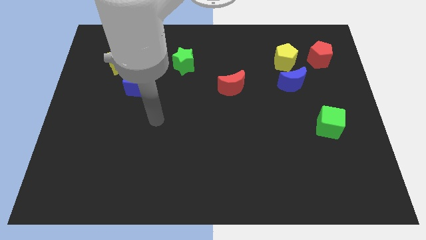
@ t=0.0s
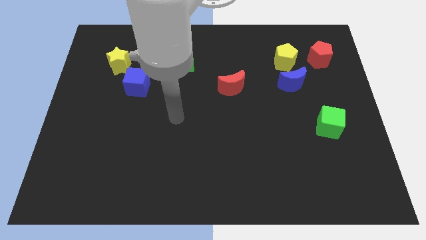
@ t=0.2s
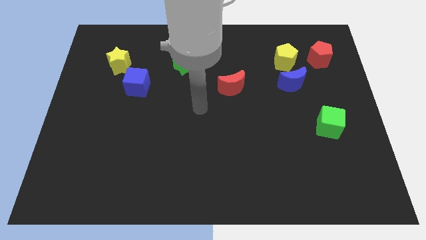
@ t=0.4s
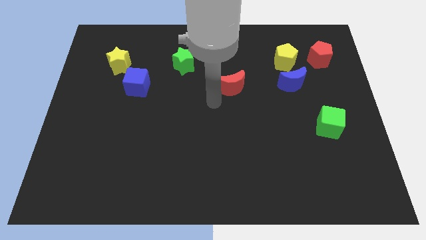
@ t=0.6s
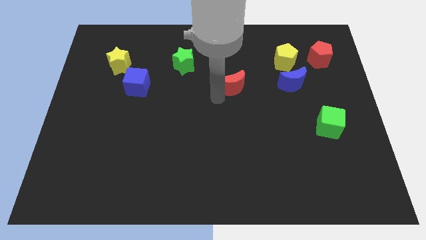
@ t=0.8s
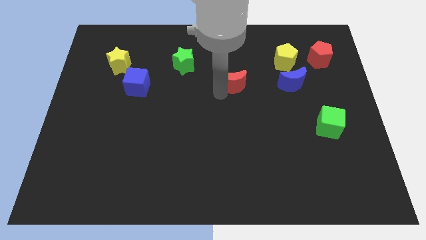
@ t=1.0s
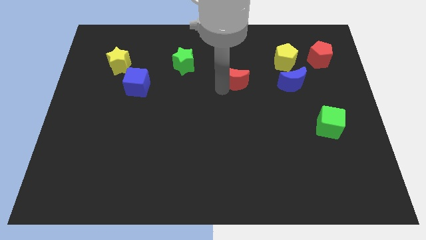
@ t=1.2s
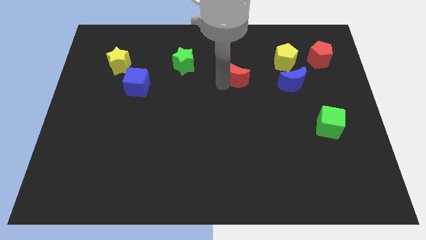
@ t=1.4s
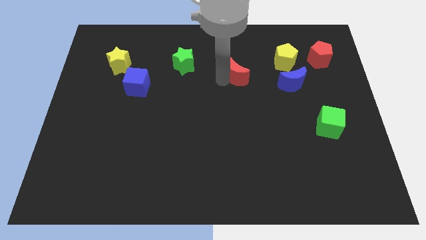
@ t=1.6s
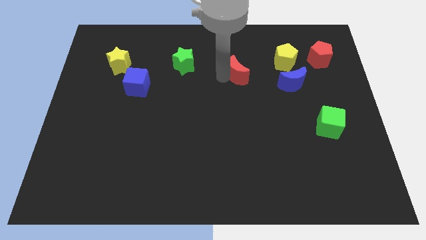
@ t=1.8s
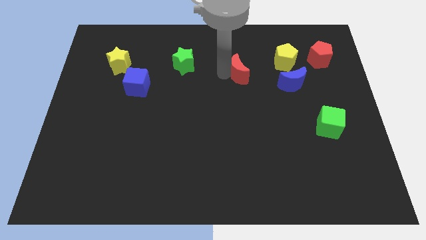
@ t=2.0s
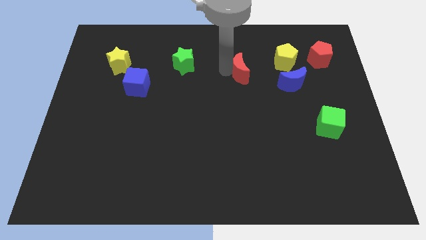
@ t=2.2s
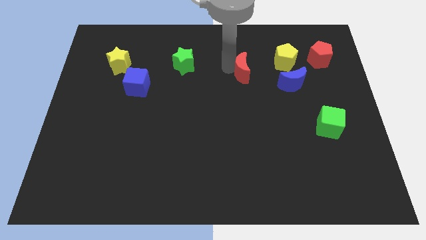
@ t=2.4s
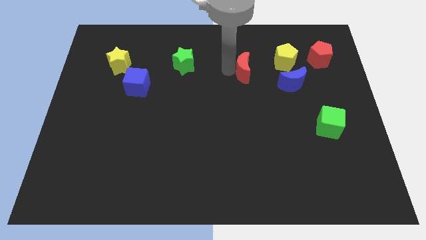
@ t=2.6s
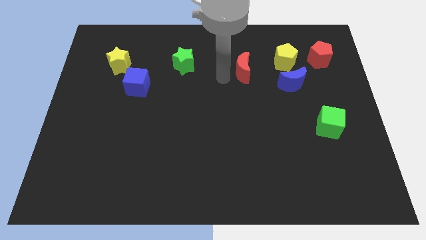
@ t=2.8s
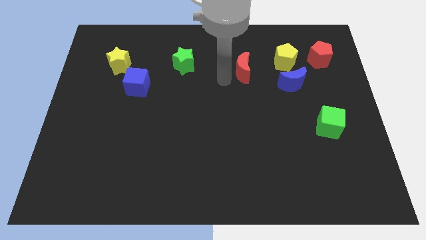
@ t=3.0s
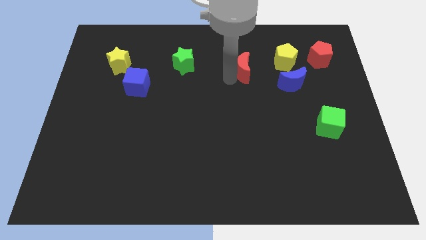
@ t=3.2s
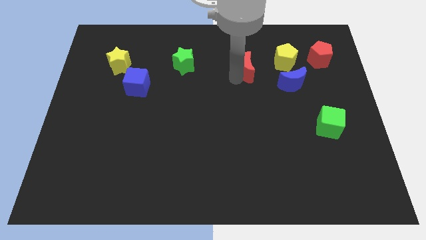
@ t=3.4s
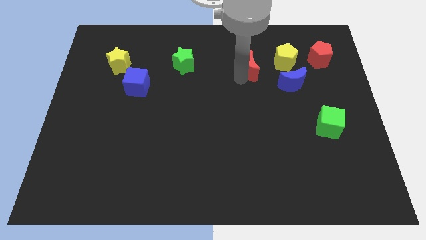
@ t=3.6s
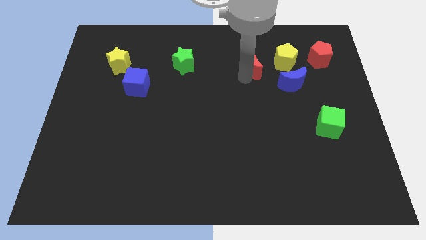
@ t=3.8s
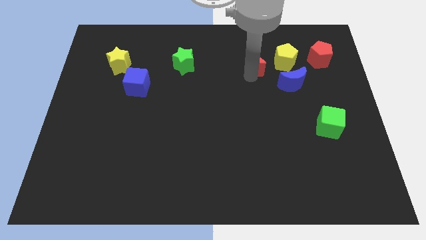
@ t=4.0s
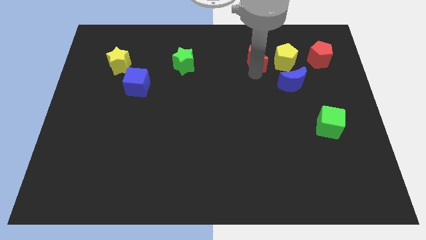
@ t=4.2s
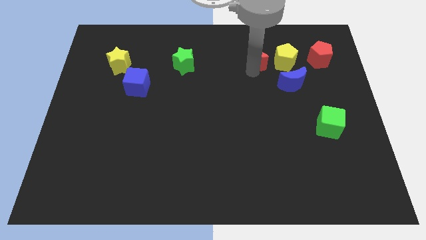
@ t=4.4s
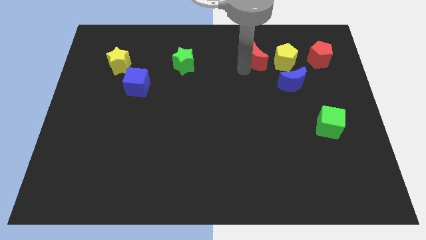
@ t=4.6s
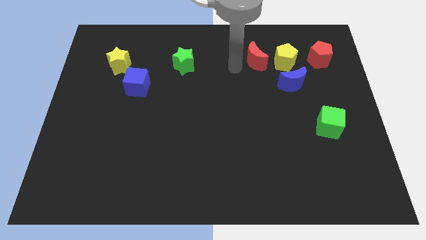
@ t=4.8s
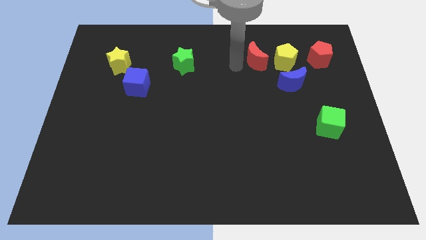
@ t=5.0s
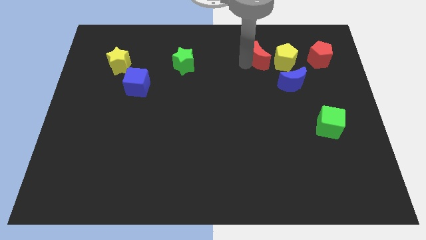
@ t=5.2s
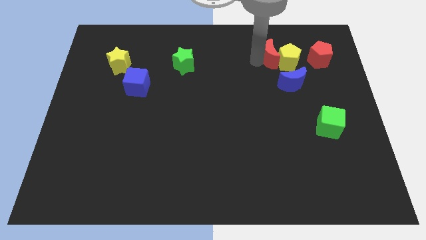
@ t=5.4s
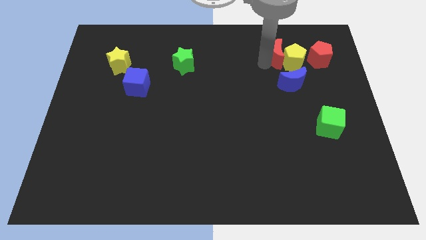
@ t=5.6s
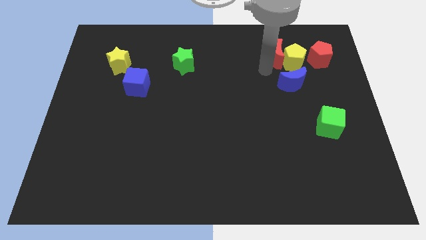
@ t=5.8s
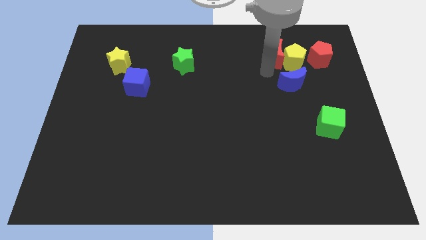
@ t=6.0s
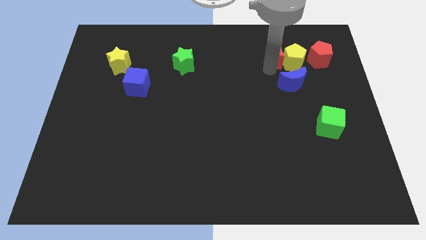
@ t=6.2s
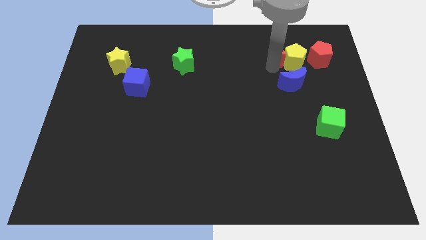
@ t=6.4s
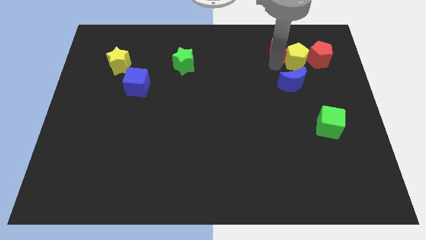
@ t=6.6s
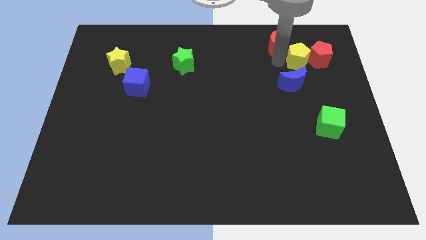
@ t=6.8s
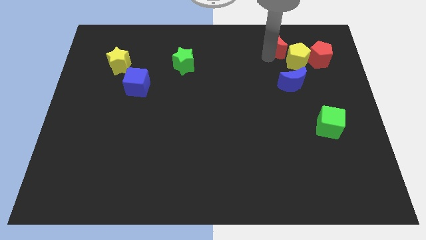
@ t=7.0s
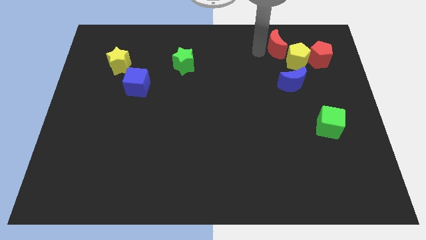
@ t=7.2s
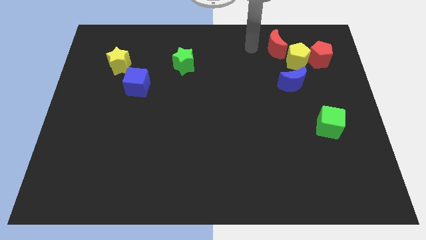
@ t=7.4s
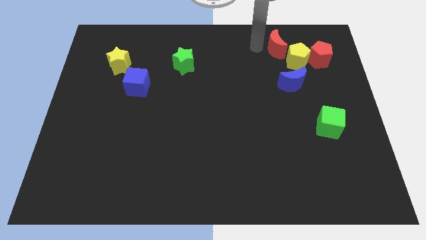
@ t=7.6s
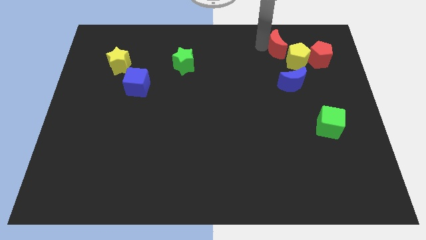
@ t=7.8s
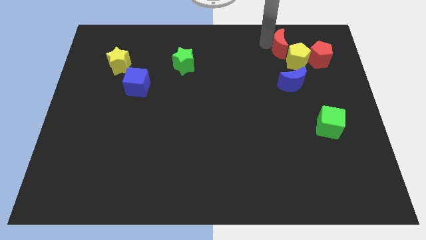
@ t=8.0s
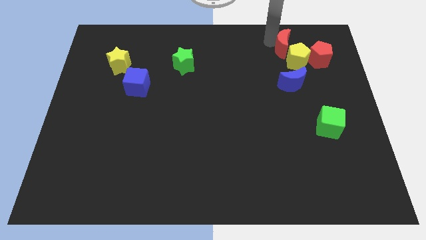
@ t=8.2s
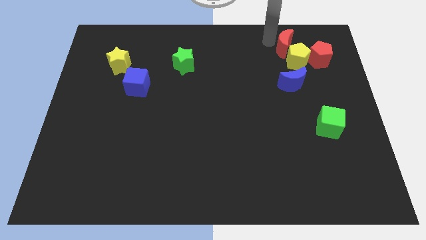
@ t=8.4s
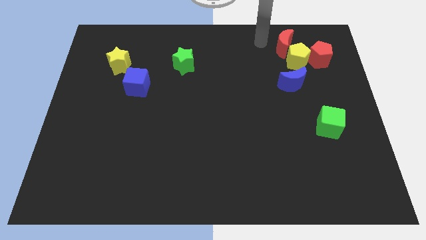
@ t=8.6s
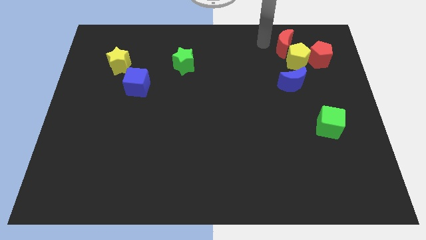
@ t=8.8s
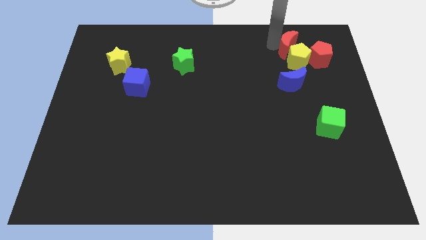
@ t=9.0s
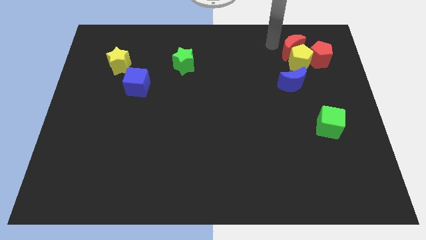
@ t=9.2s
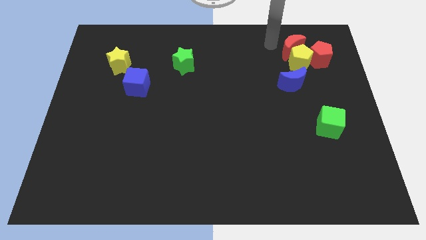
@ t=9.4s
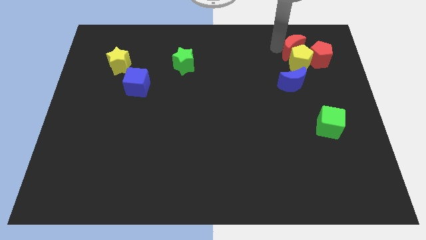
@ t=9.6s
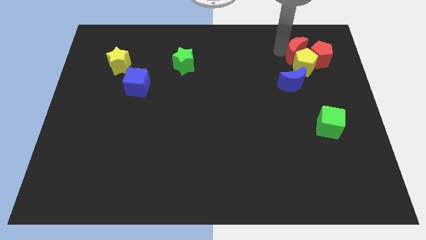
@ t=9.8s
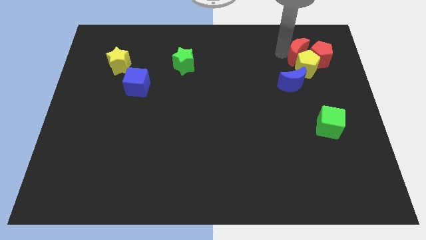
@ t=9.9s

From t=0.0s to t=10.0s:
push the red moon towards the red pentagon

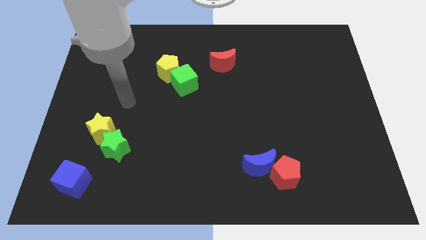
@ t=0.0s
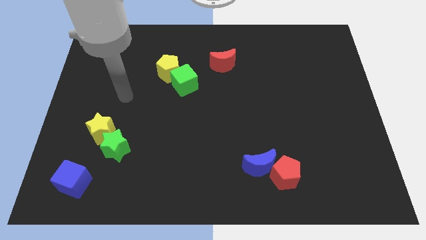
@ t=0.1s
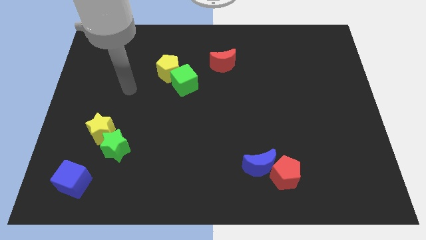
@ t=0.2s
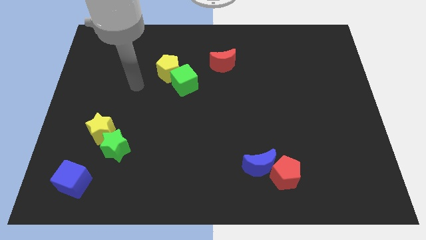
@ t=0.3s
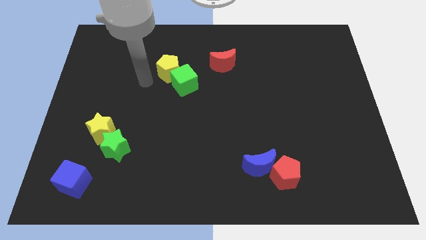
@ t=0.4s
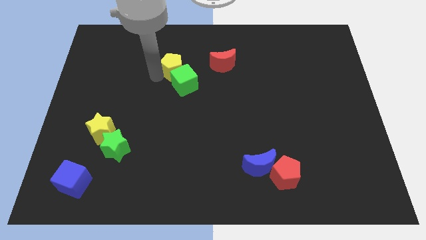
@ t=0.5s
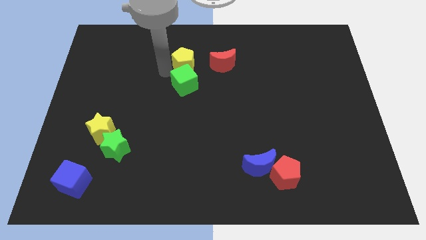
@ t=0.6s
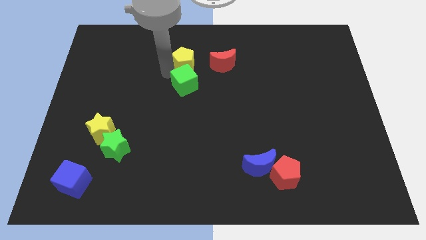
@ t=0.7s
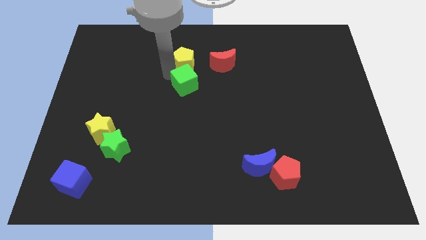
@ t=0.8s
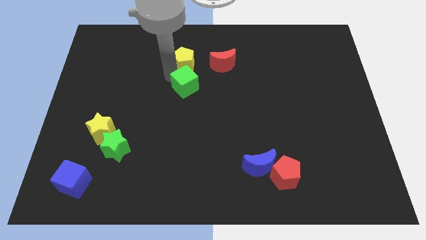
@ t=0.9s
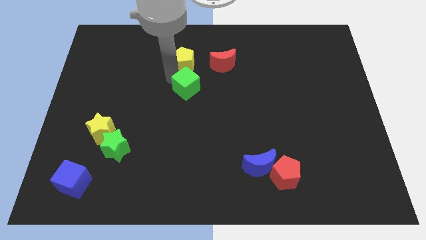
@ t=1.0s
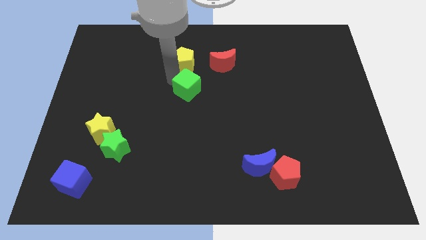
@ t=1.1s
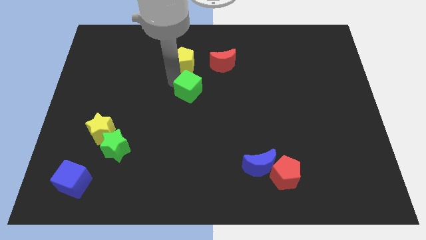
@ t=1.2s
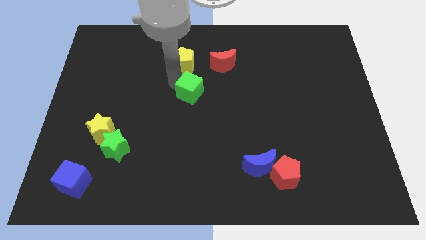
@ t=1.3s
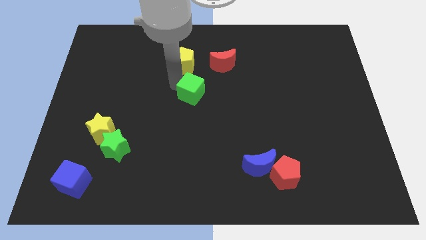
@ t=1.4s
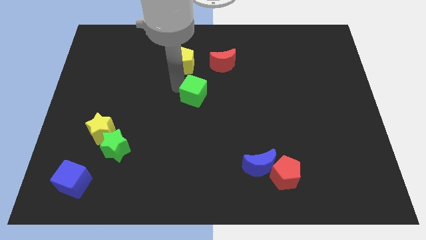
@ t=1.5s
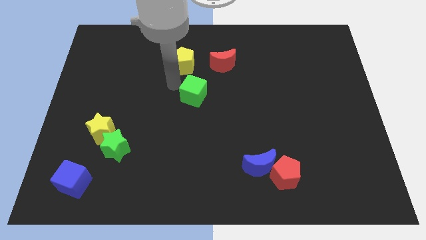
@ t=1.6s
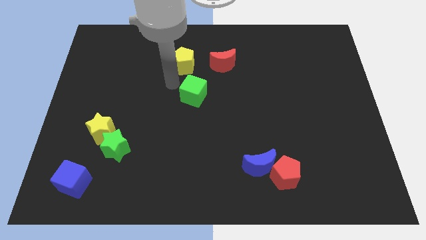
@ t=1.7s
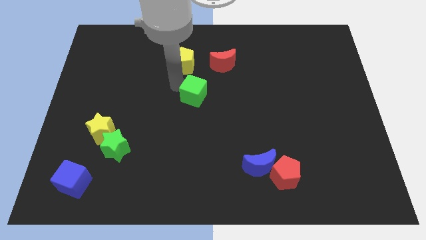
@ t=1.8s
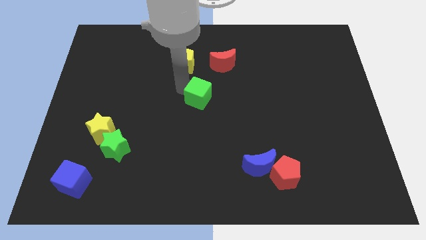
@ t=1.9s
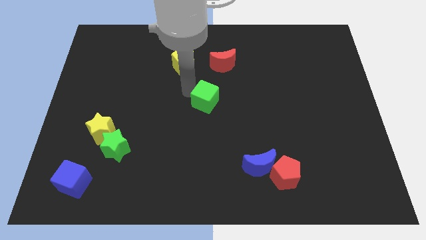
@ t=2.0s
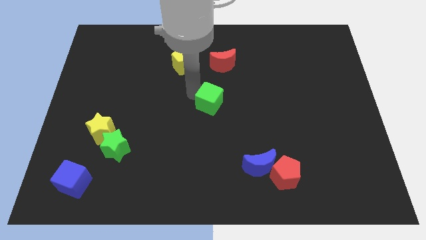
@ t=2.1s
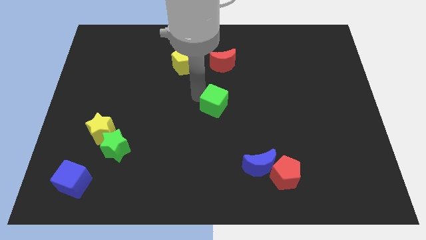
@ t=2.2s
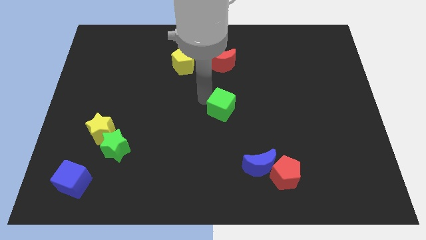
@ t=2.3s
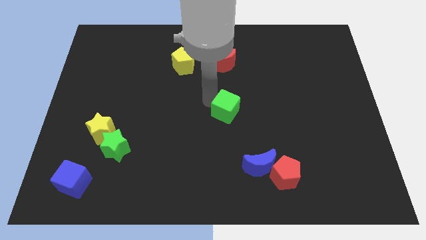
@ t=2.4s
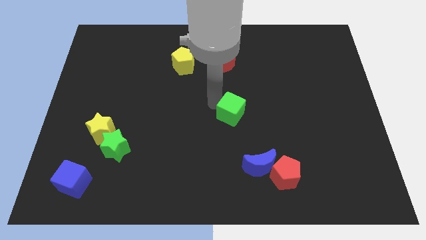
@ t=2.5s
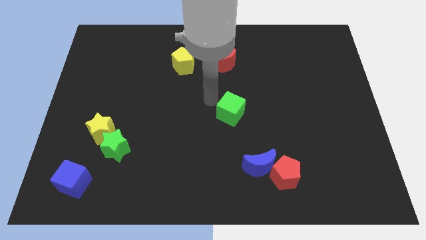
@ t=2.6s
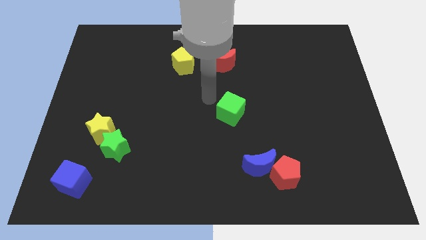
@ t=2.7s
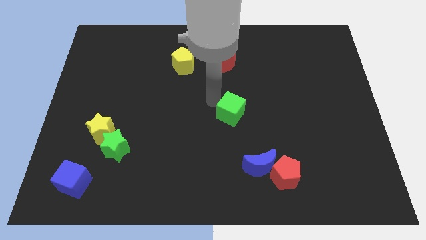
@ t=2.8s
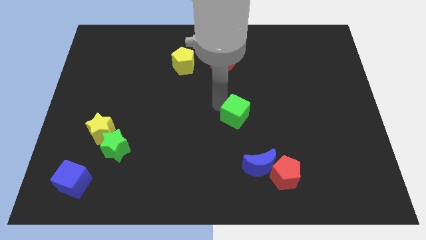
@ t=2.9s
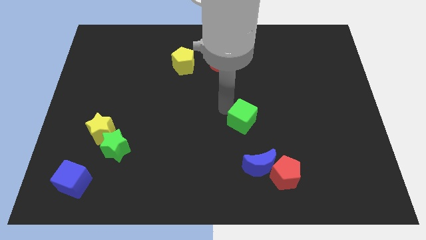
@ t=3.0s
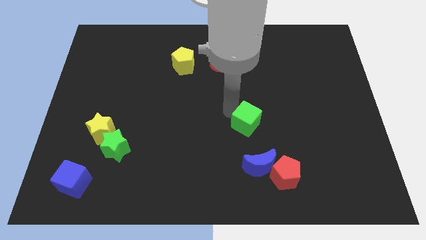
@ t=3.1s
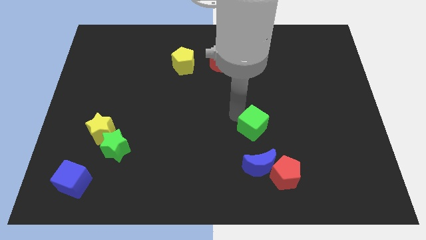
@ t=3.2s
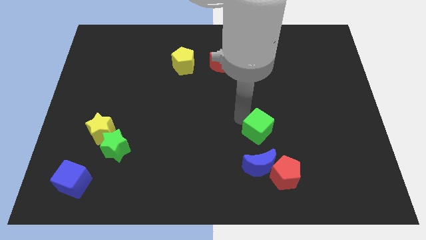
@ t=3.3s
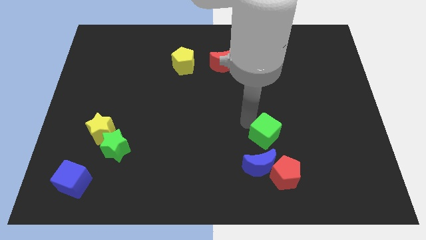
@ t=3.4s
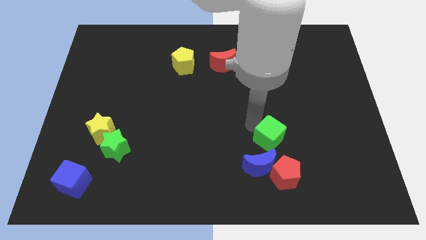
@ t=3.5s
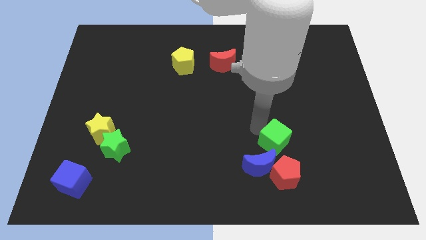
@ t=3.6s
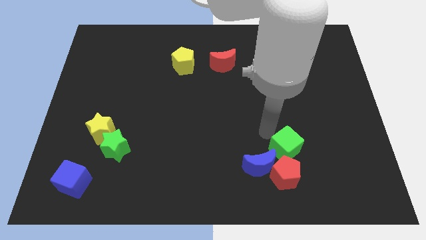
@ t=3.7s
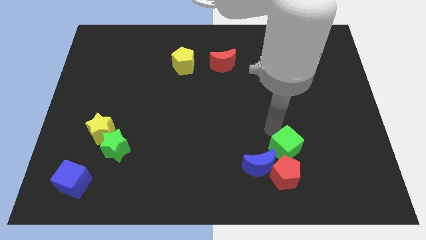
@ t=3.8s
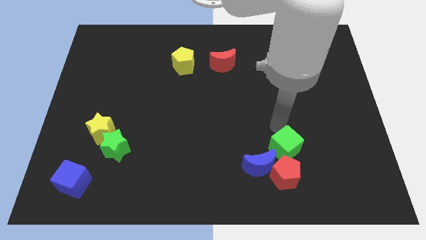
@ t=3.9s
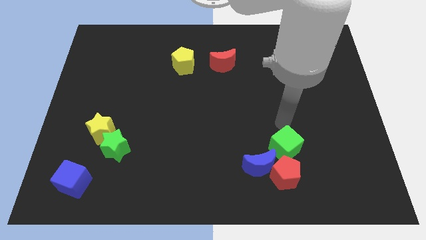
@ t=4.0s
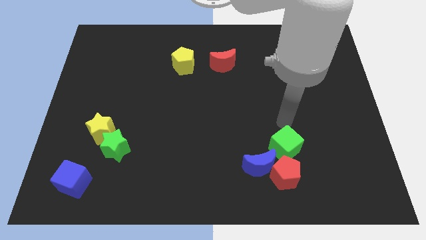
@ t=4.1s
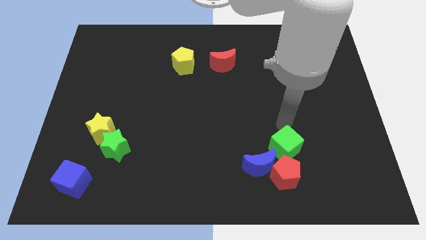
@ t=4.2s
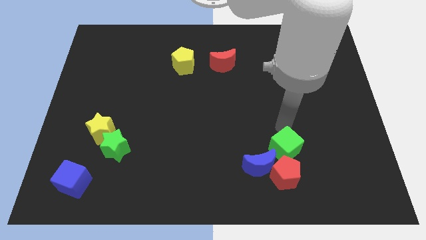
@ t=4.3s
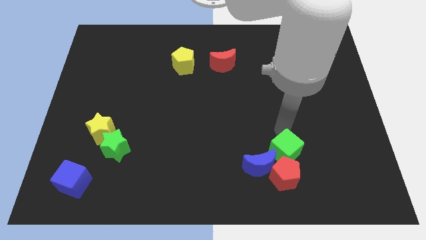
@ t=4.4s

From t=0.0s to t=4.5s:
slide the green cube next to the red pentagon
